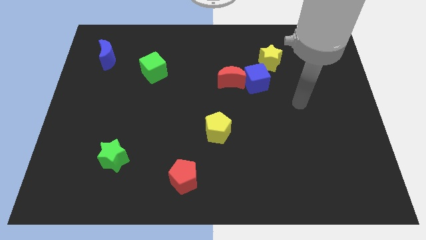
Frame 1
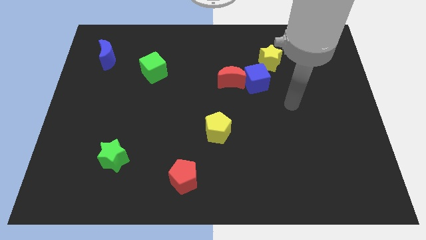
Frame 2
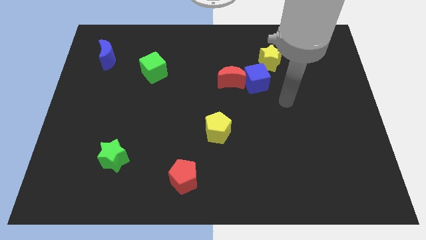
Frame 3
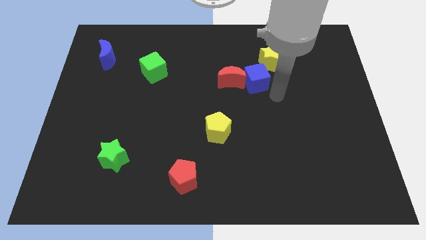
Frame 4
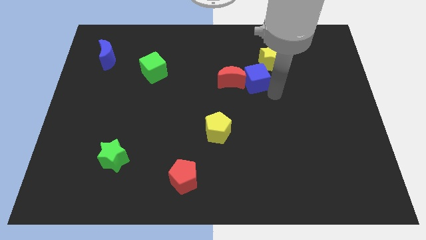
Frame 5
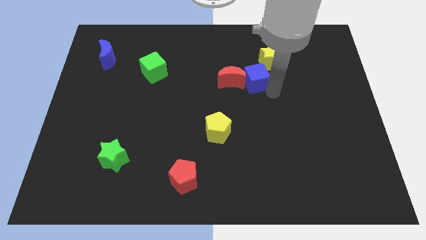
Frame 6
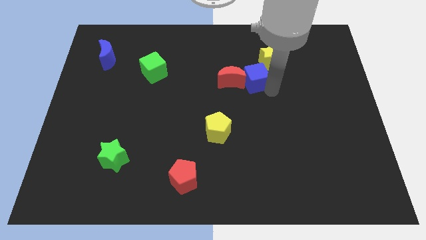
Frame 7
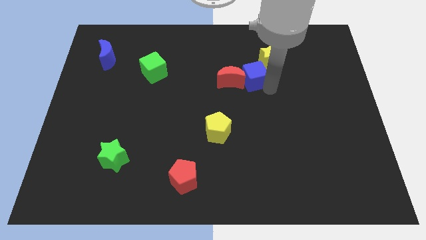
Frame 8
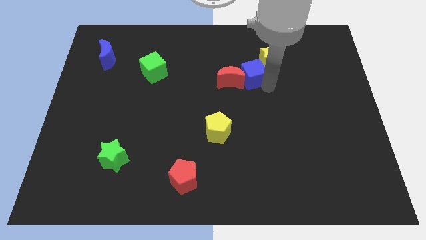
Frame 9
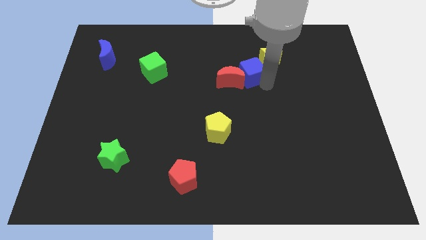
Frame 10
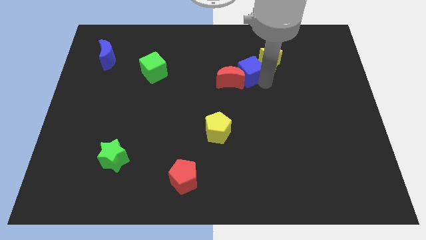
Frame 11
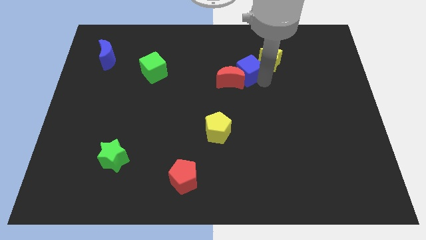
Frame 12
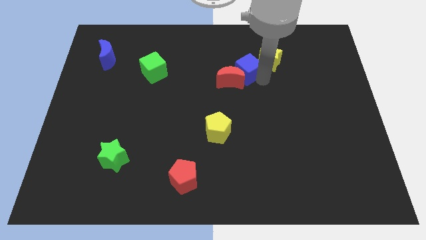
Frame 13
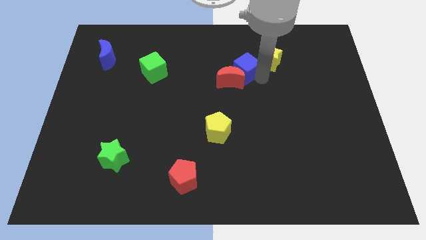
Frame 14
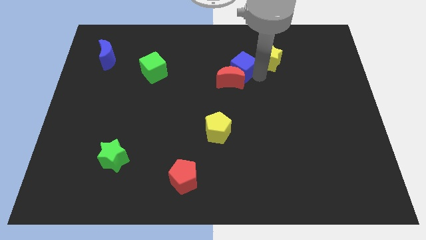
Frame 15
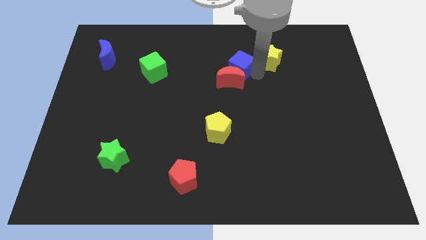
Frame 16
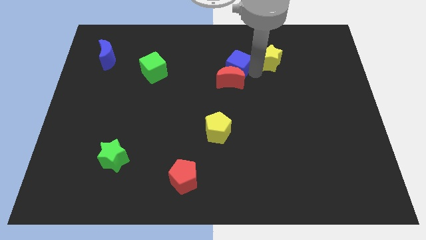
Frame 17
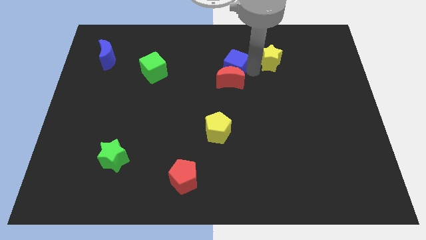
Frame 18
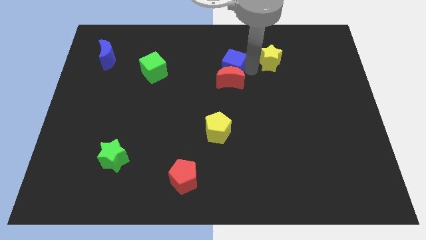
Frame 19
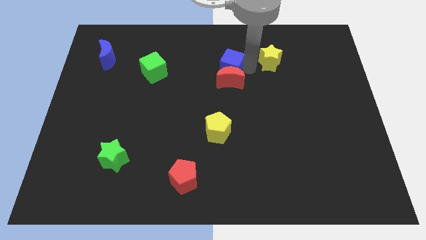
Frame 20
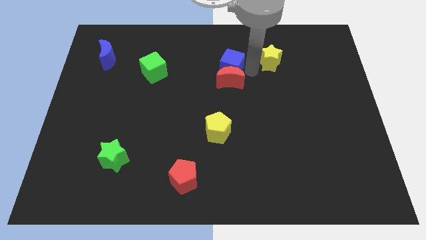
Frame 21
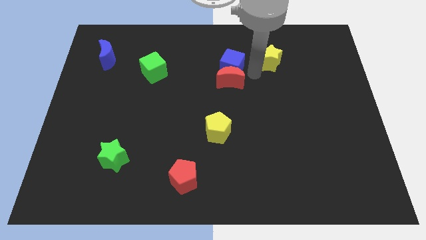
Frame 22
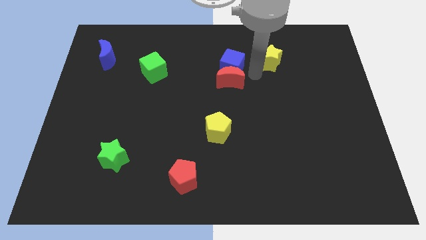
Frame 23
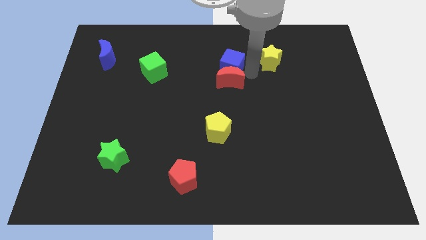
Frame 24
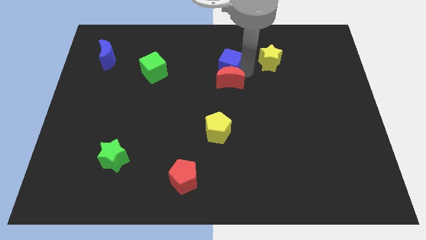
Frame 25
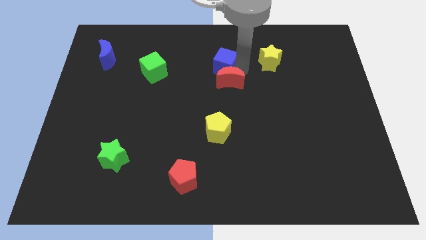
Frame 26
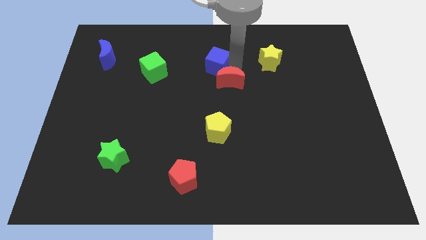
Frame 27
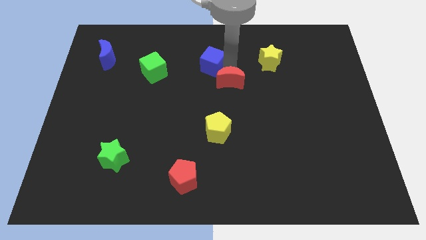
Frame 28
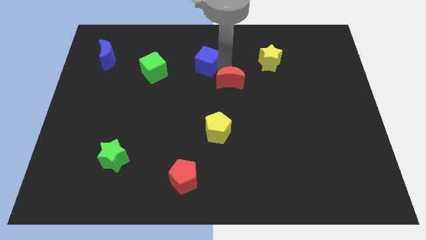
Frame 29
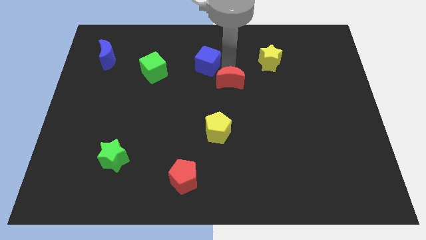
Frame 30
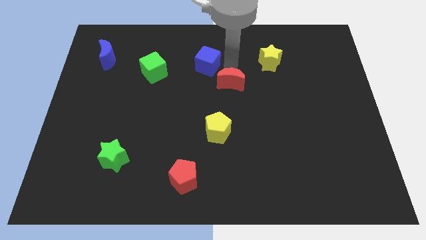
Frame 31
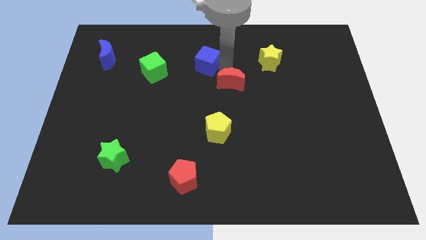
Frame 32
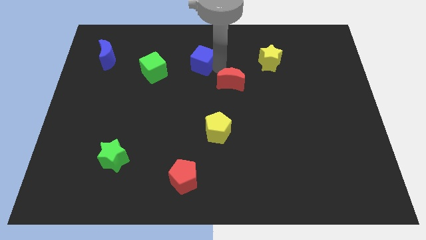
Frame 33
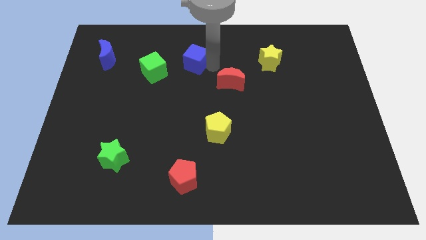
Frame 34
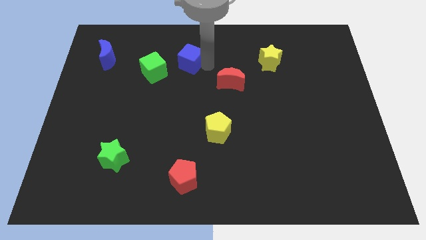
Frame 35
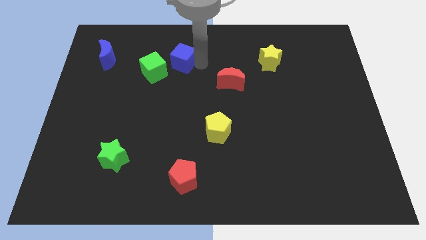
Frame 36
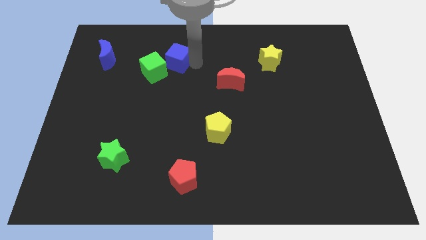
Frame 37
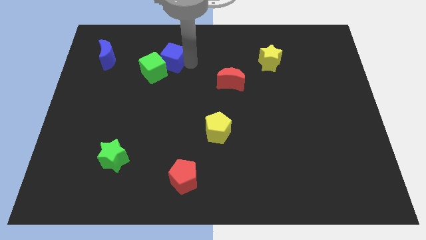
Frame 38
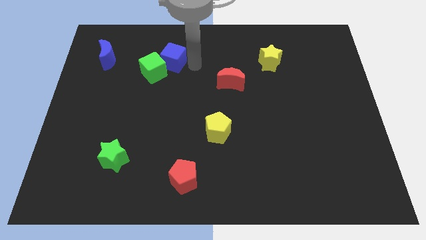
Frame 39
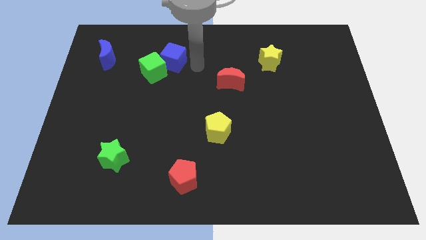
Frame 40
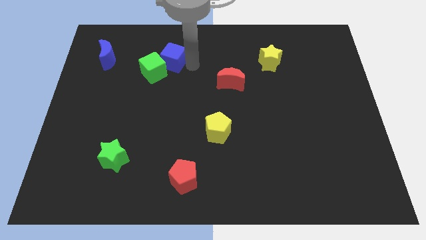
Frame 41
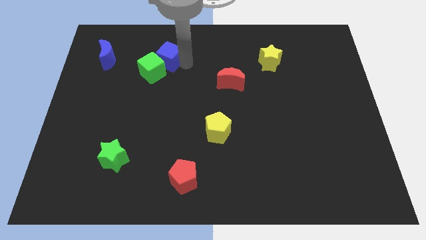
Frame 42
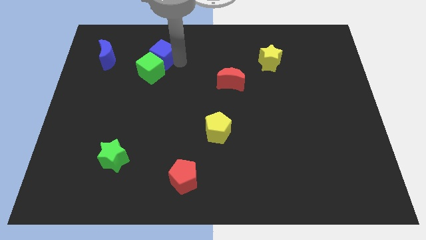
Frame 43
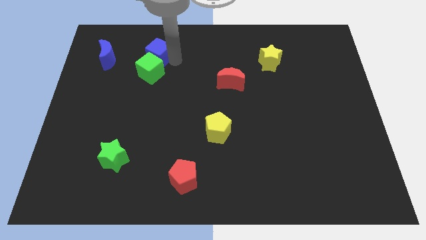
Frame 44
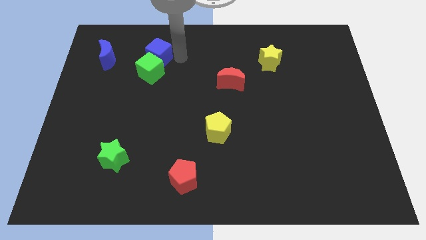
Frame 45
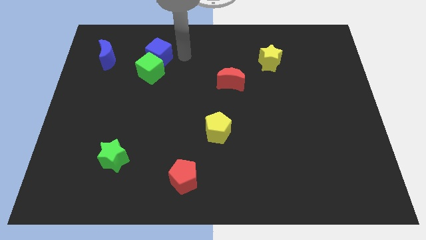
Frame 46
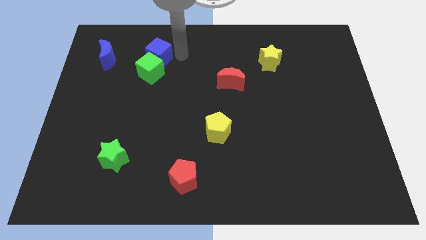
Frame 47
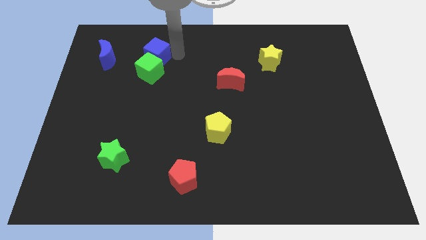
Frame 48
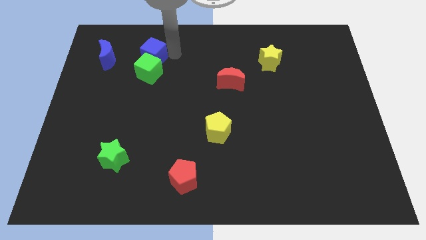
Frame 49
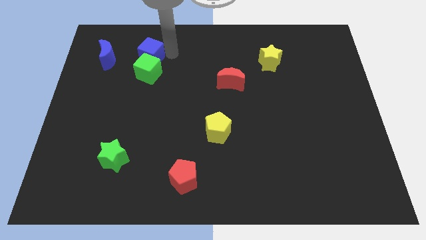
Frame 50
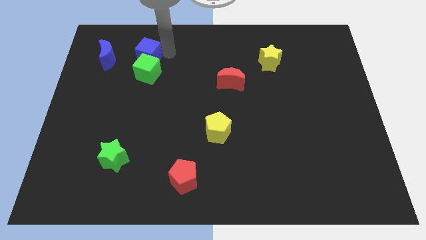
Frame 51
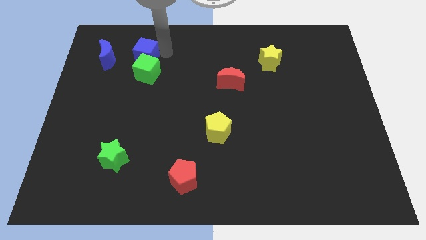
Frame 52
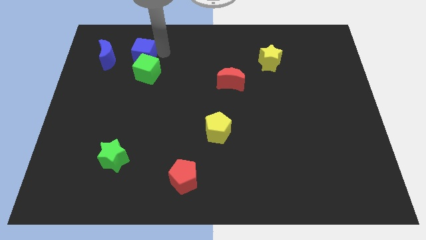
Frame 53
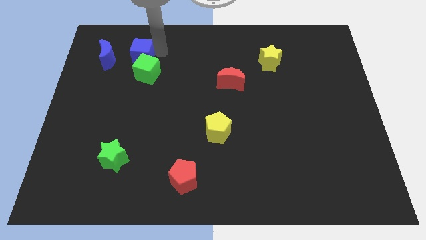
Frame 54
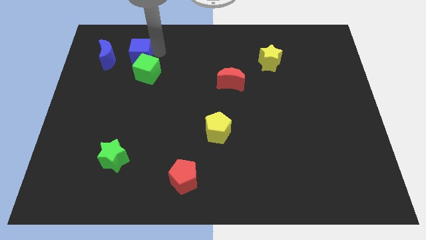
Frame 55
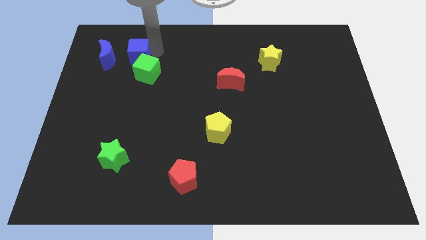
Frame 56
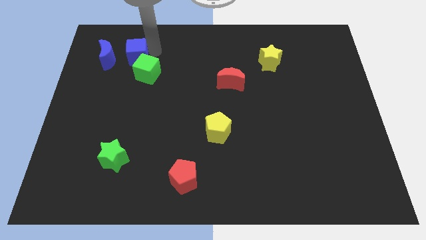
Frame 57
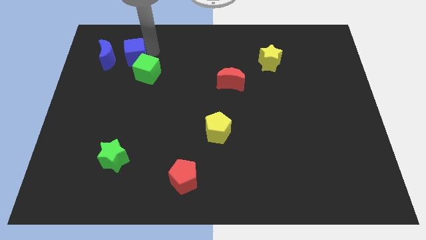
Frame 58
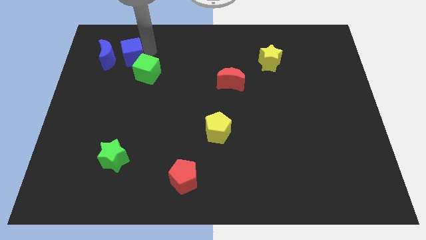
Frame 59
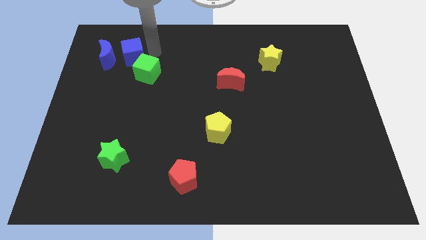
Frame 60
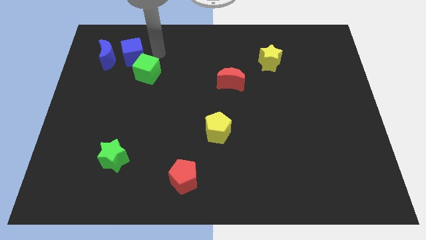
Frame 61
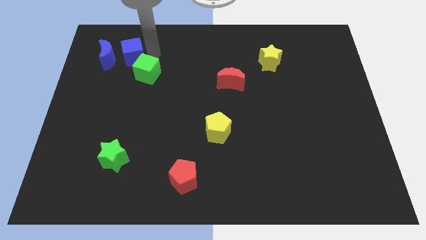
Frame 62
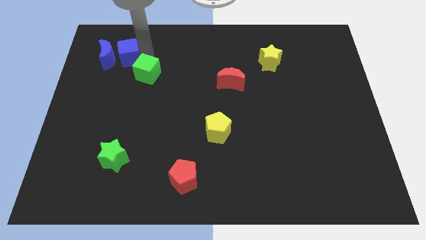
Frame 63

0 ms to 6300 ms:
move the blue cube to the blue moon

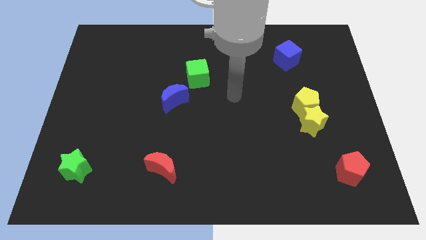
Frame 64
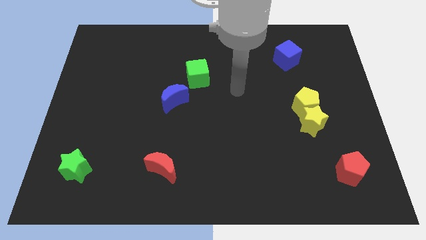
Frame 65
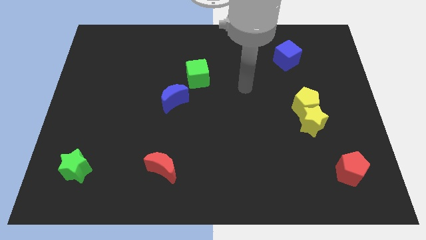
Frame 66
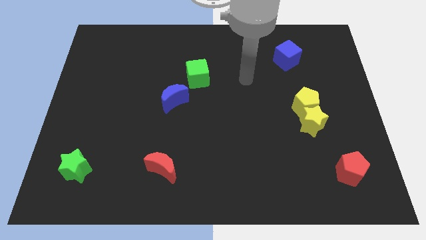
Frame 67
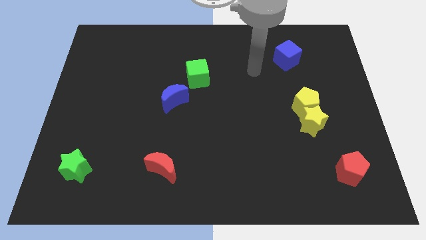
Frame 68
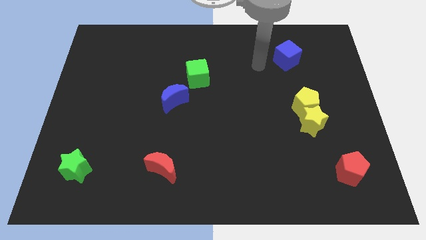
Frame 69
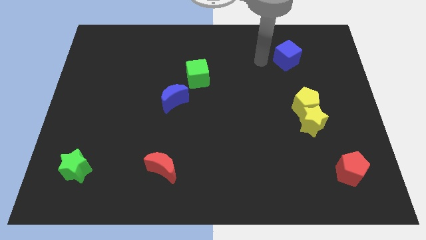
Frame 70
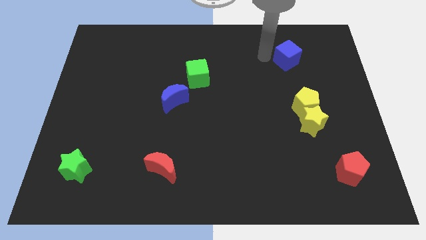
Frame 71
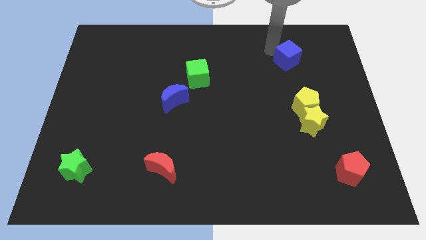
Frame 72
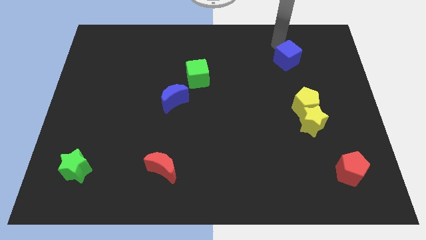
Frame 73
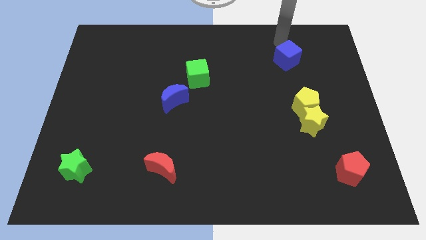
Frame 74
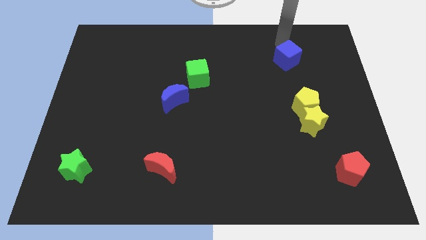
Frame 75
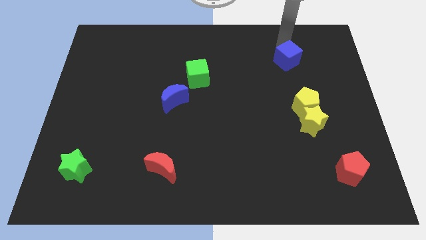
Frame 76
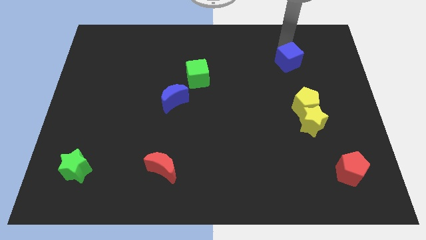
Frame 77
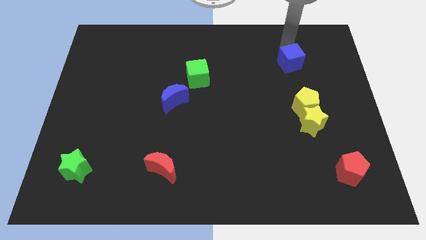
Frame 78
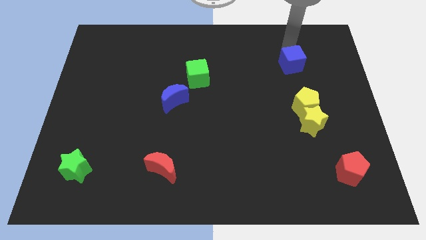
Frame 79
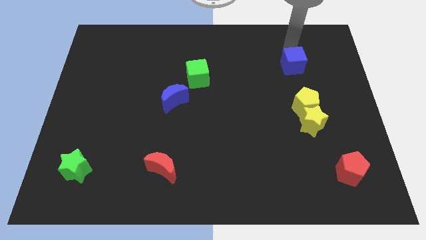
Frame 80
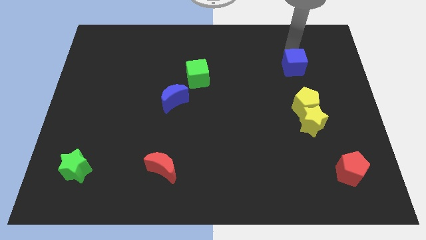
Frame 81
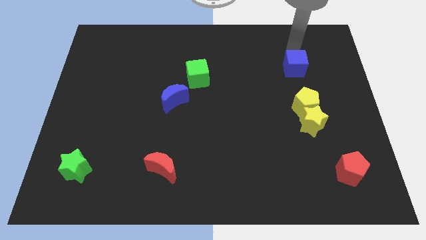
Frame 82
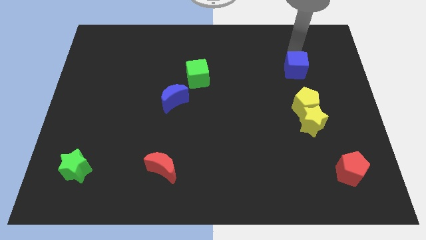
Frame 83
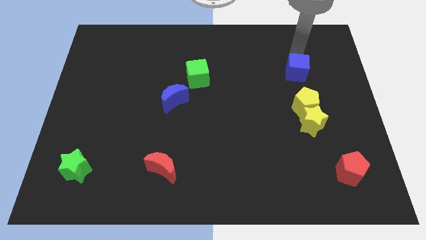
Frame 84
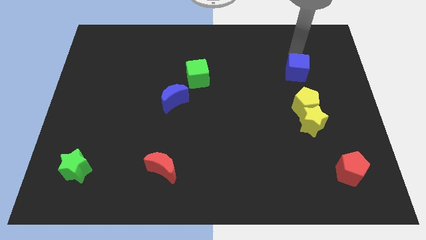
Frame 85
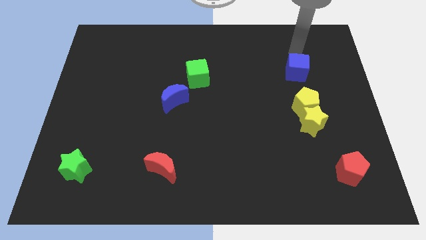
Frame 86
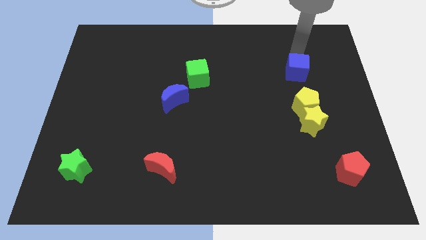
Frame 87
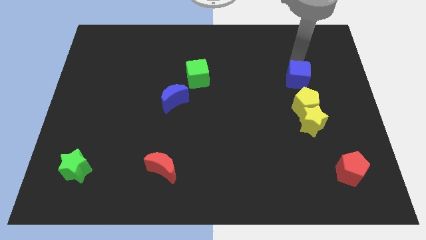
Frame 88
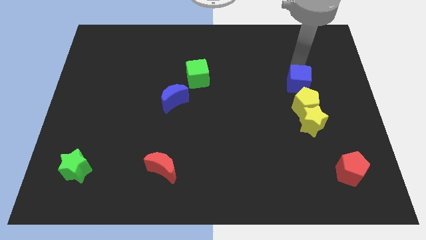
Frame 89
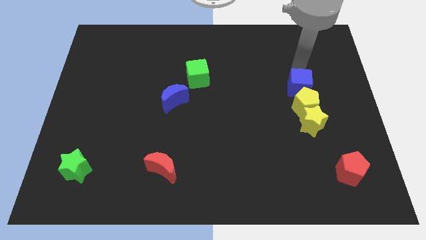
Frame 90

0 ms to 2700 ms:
push the blue cube close to the yellow pentagon
